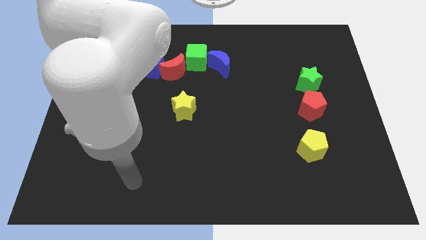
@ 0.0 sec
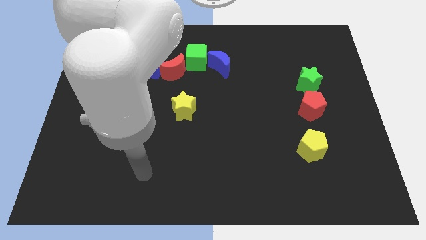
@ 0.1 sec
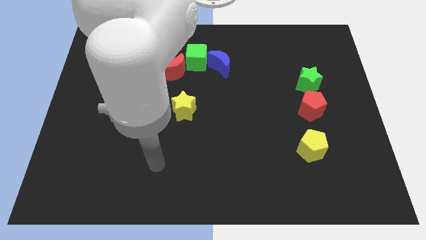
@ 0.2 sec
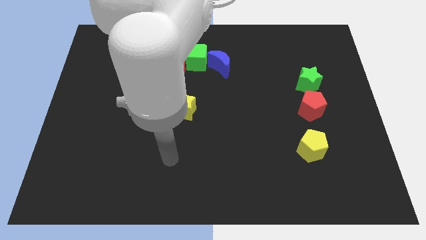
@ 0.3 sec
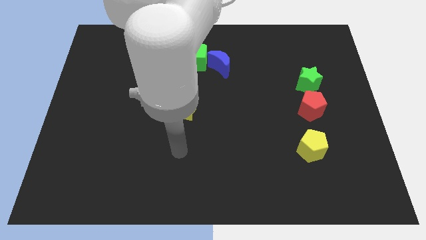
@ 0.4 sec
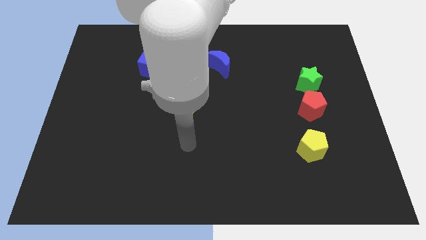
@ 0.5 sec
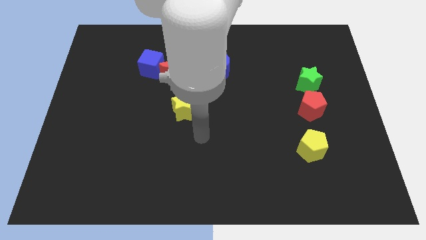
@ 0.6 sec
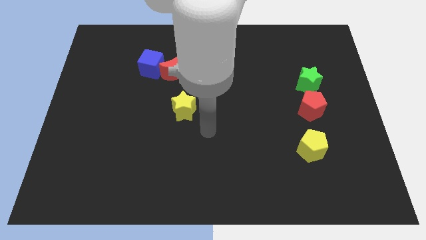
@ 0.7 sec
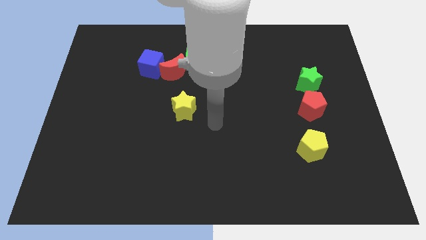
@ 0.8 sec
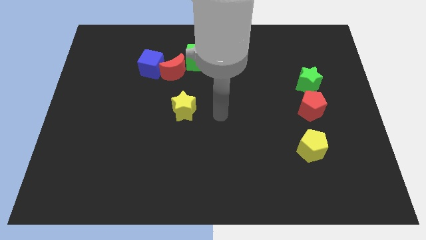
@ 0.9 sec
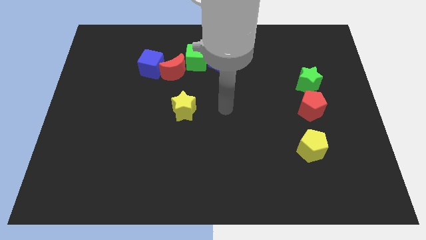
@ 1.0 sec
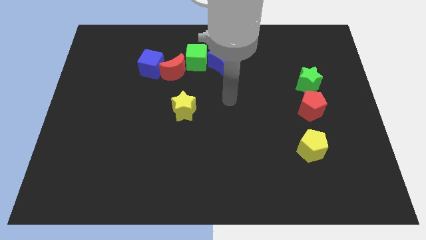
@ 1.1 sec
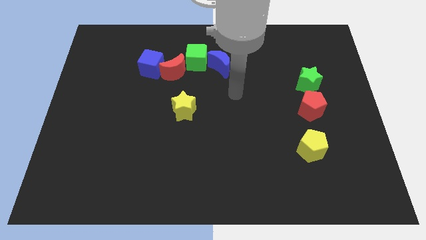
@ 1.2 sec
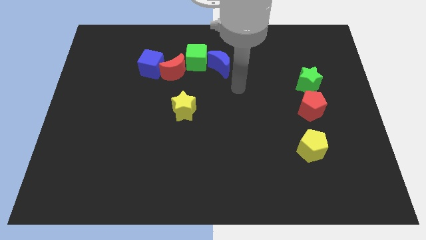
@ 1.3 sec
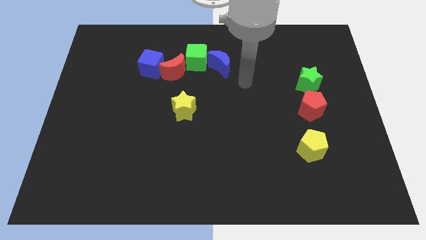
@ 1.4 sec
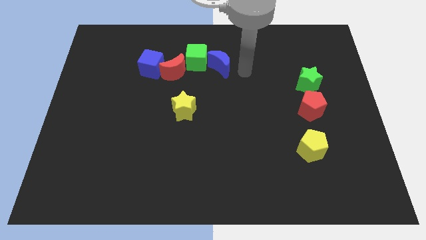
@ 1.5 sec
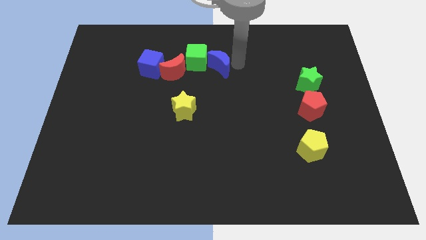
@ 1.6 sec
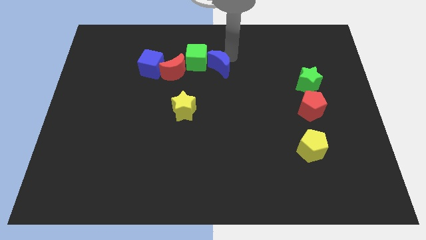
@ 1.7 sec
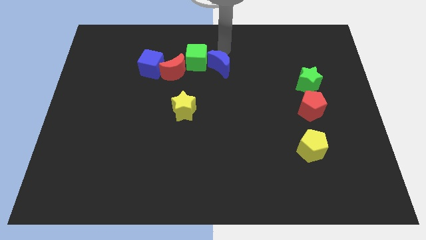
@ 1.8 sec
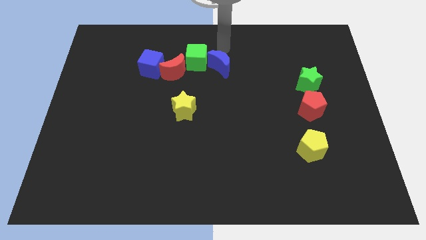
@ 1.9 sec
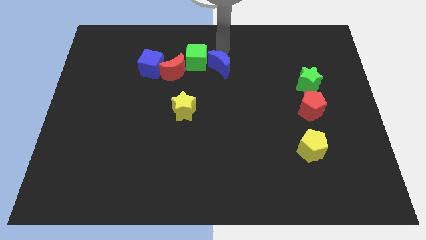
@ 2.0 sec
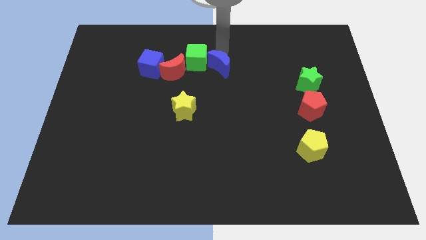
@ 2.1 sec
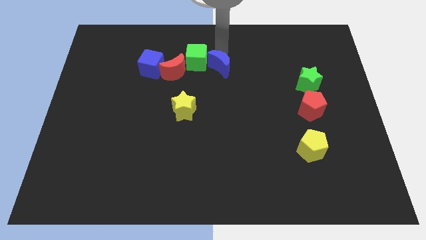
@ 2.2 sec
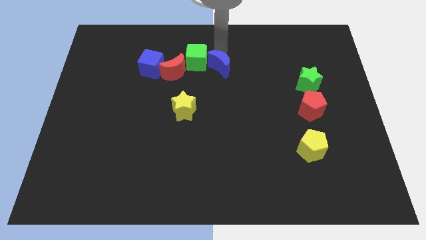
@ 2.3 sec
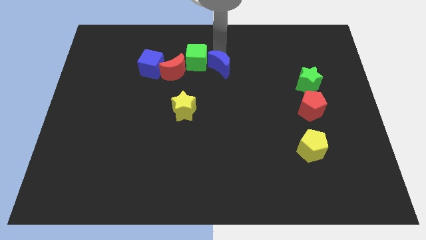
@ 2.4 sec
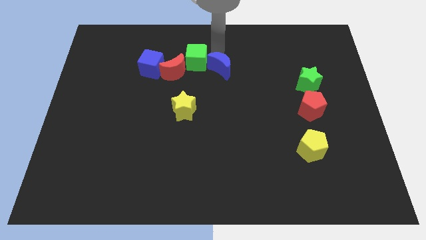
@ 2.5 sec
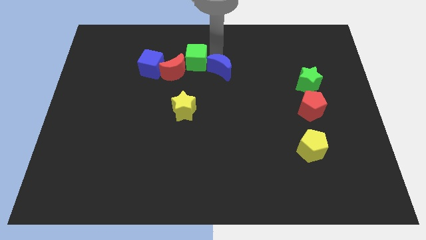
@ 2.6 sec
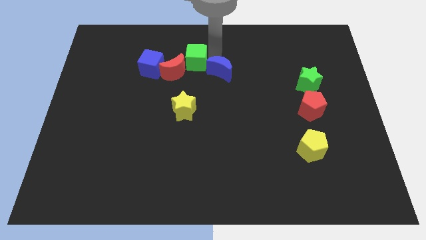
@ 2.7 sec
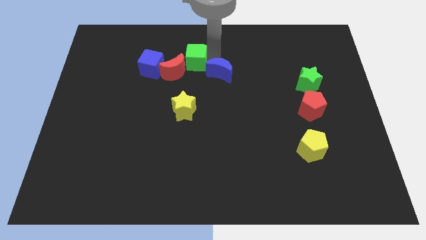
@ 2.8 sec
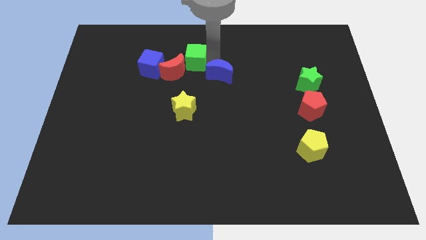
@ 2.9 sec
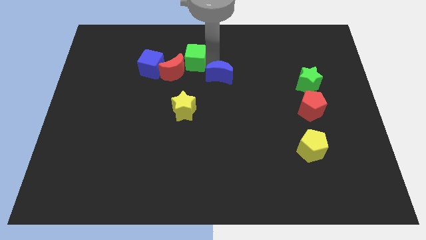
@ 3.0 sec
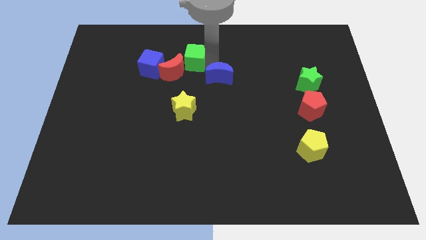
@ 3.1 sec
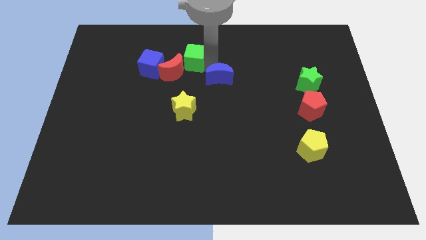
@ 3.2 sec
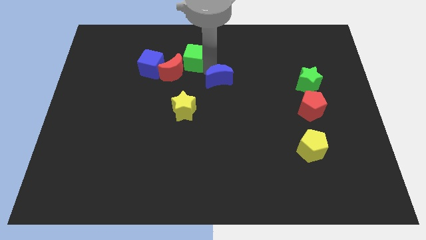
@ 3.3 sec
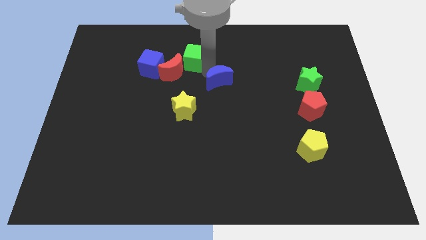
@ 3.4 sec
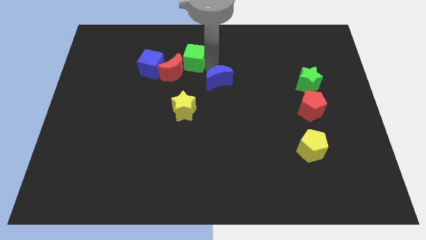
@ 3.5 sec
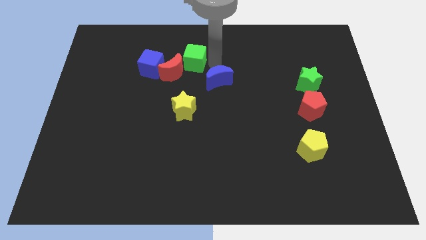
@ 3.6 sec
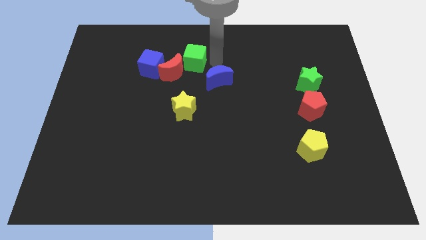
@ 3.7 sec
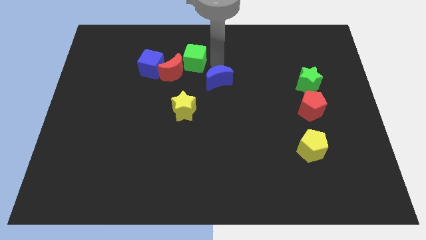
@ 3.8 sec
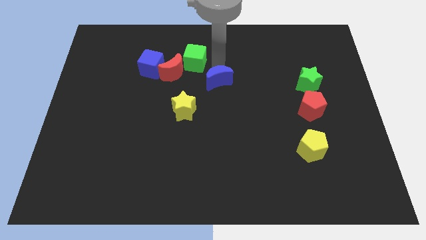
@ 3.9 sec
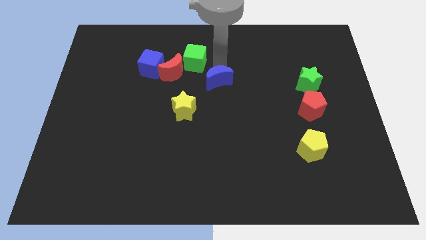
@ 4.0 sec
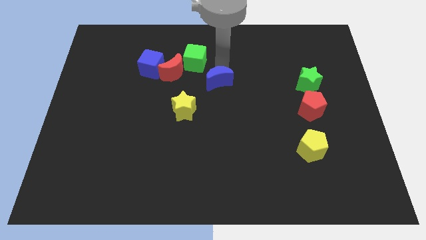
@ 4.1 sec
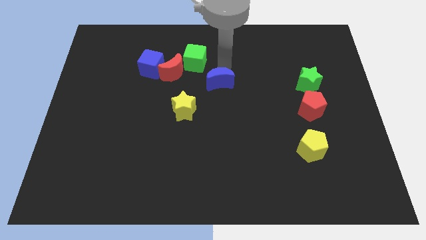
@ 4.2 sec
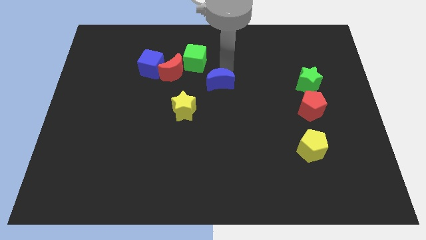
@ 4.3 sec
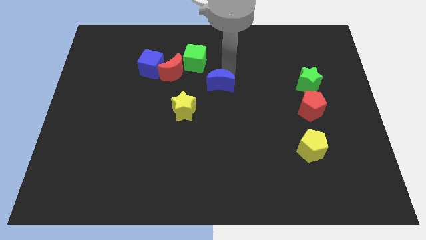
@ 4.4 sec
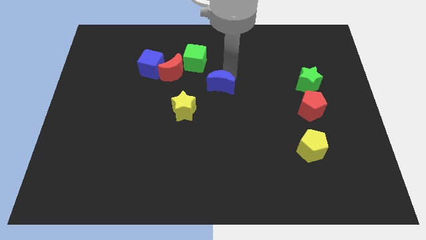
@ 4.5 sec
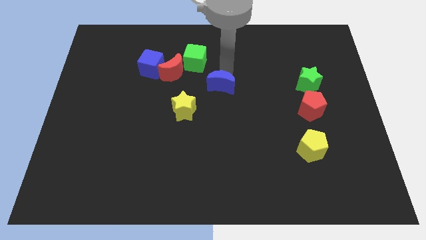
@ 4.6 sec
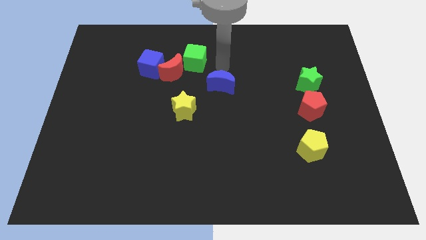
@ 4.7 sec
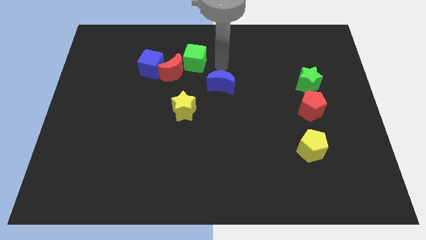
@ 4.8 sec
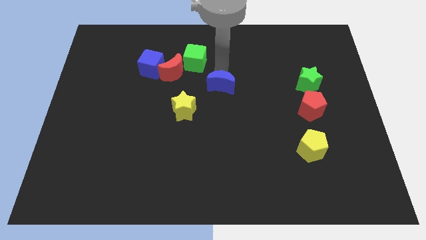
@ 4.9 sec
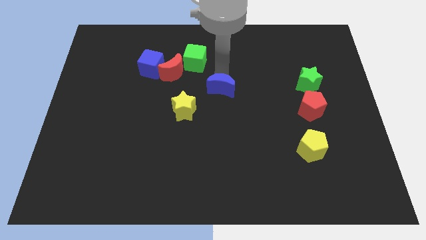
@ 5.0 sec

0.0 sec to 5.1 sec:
slightly push the blue moon downwards

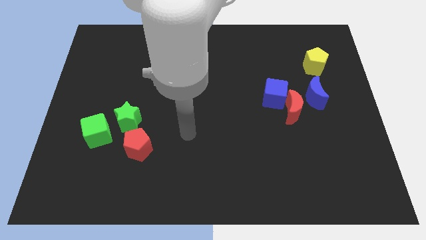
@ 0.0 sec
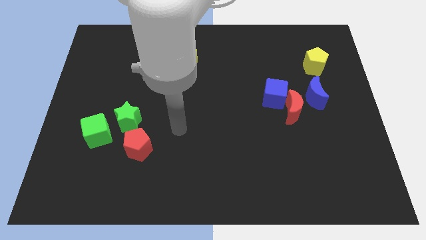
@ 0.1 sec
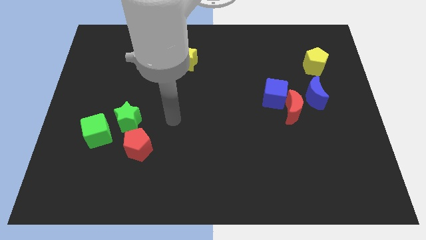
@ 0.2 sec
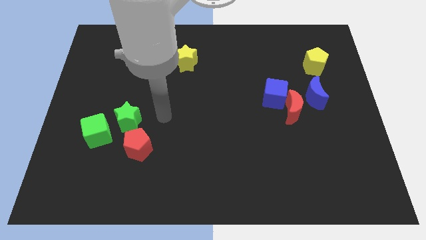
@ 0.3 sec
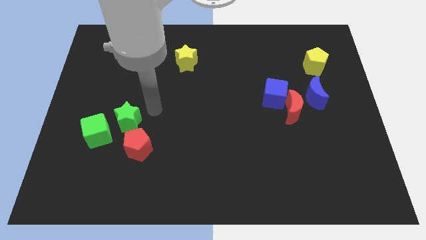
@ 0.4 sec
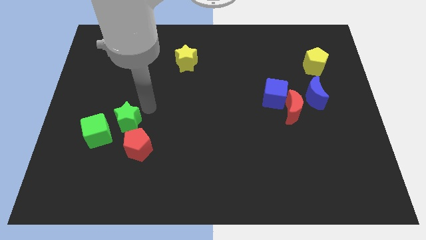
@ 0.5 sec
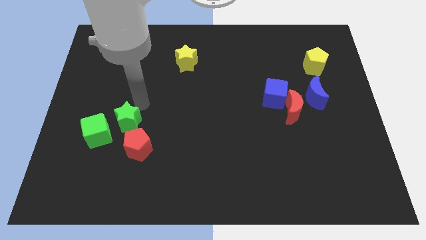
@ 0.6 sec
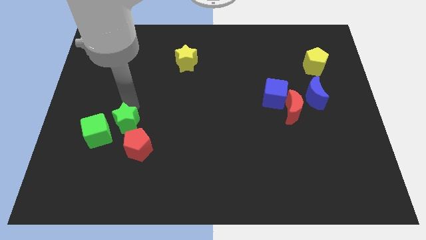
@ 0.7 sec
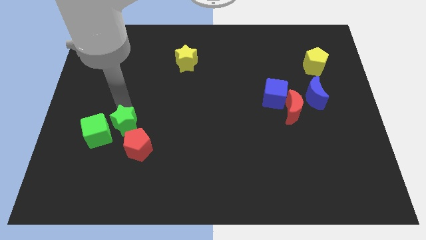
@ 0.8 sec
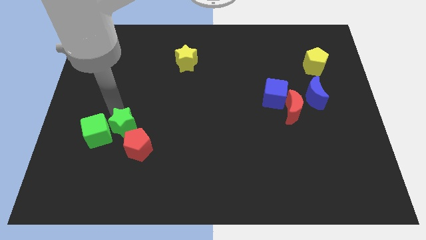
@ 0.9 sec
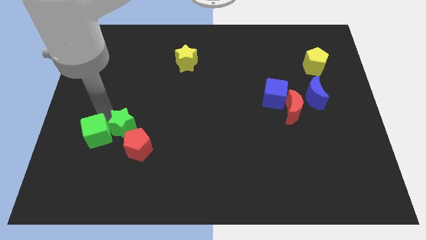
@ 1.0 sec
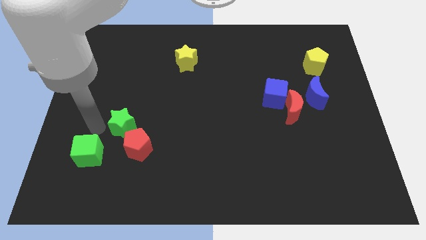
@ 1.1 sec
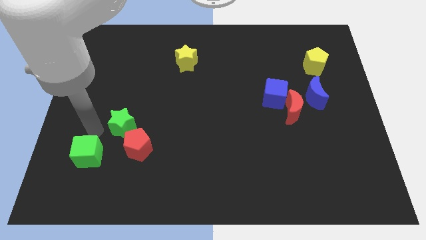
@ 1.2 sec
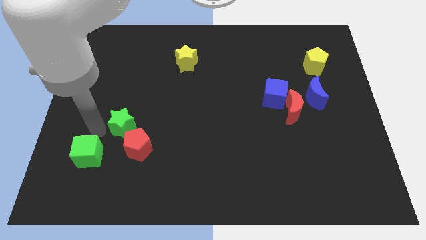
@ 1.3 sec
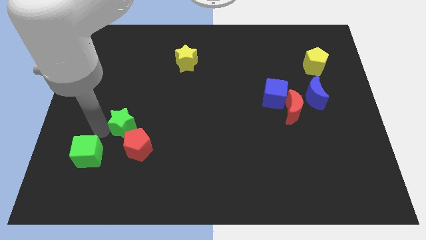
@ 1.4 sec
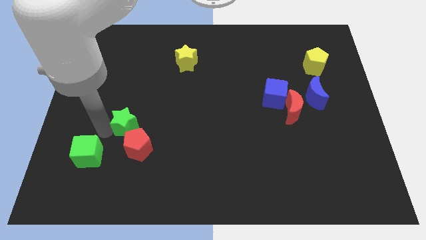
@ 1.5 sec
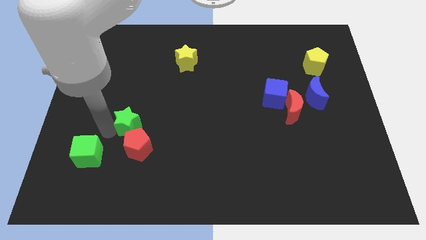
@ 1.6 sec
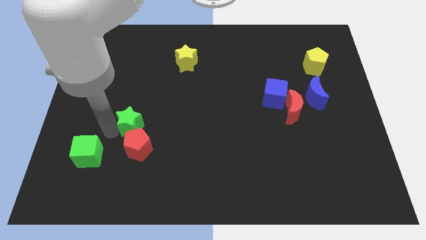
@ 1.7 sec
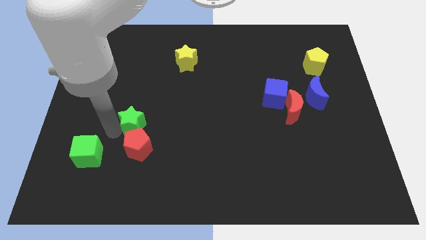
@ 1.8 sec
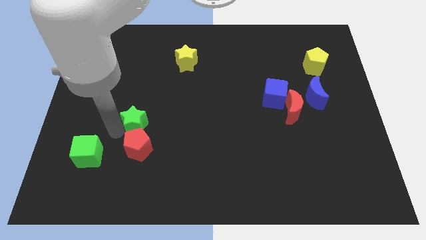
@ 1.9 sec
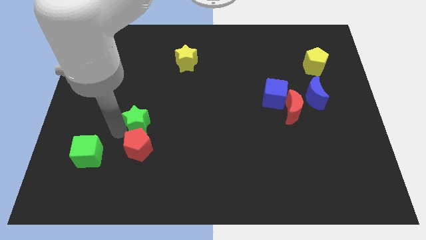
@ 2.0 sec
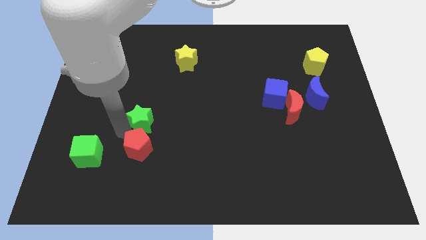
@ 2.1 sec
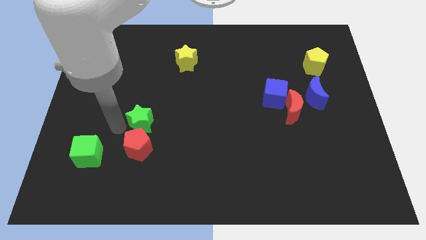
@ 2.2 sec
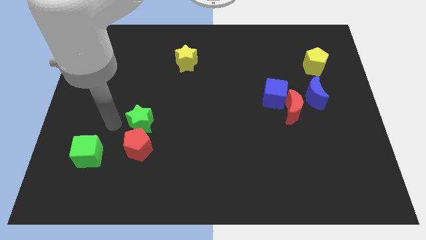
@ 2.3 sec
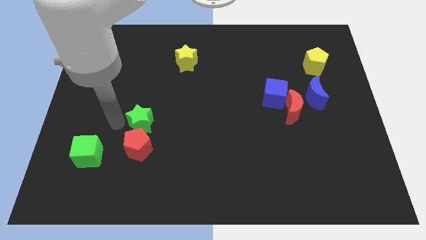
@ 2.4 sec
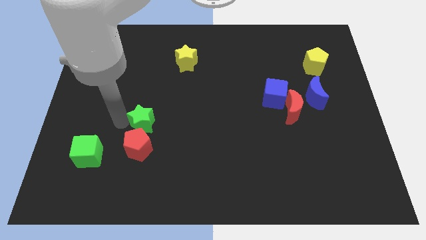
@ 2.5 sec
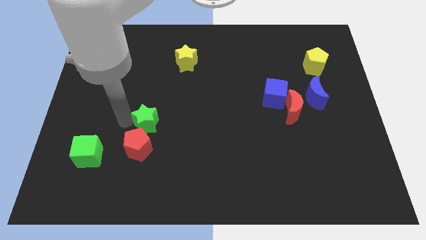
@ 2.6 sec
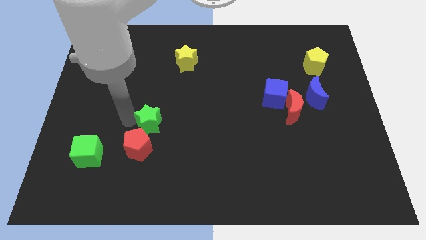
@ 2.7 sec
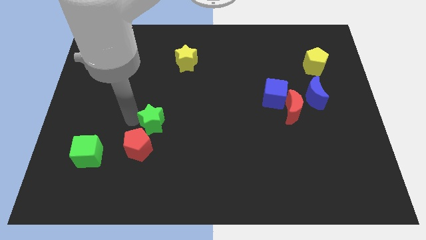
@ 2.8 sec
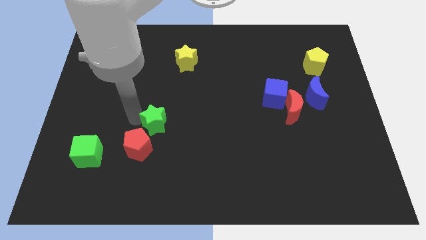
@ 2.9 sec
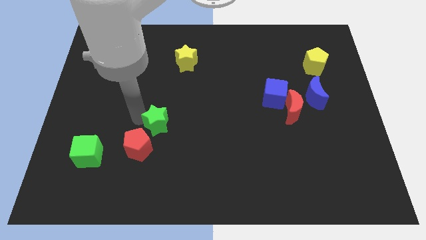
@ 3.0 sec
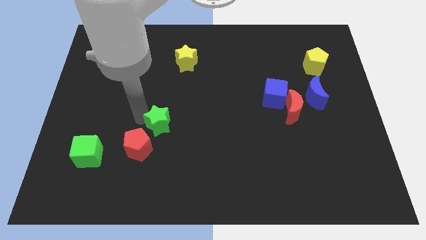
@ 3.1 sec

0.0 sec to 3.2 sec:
move the green star a bit to the right
